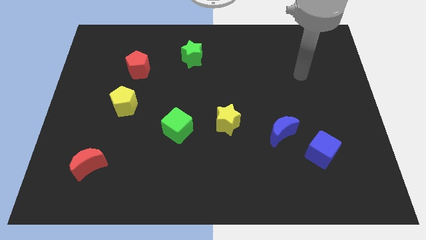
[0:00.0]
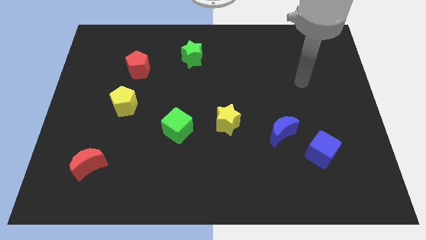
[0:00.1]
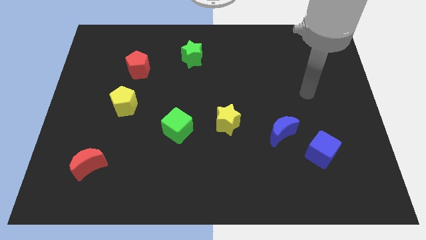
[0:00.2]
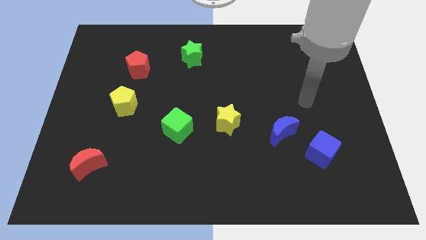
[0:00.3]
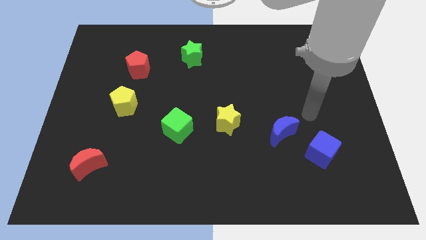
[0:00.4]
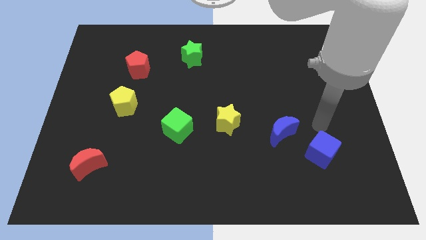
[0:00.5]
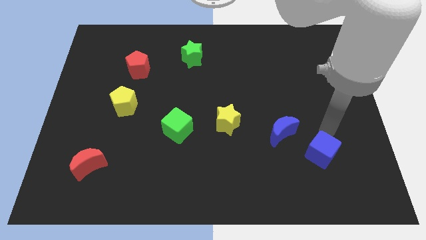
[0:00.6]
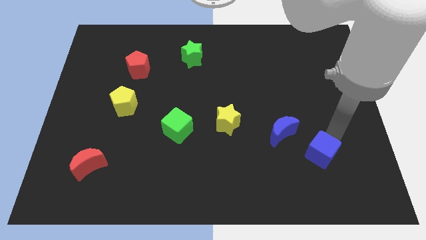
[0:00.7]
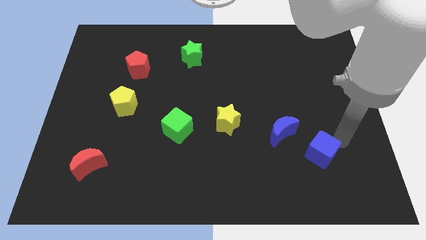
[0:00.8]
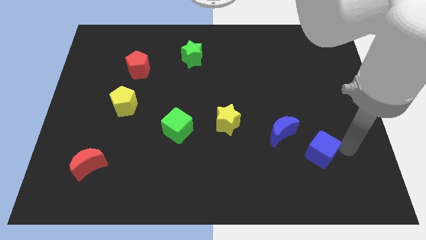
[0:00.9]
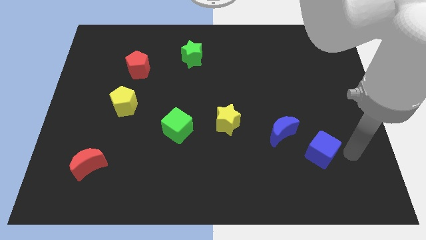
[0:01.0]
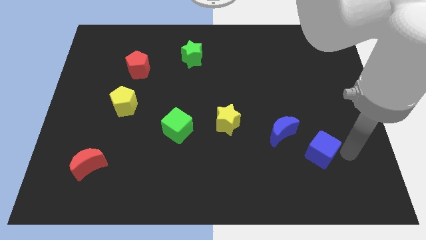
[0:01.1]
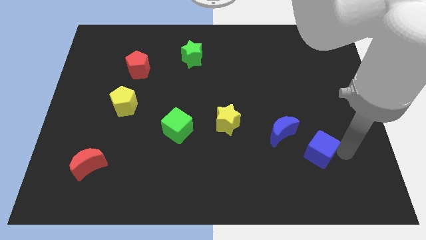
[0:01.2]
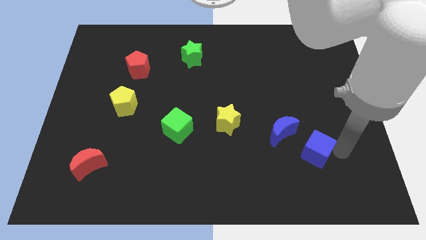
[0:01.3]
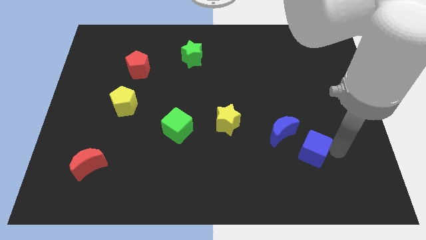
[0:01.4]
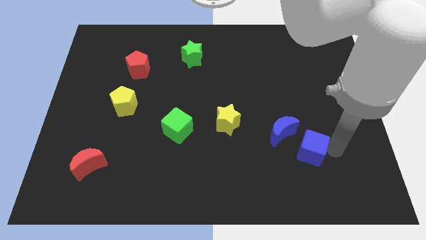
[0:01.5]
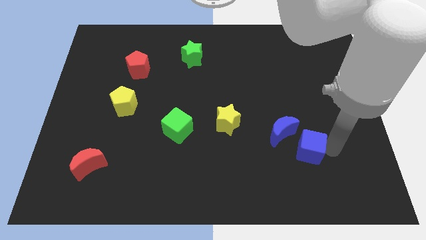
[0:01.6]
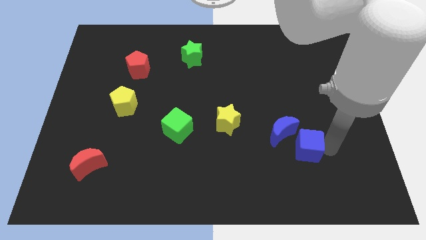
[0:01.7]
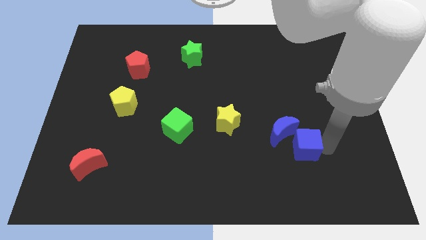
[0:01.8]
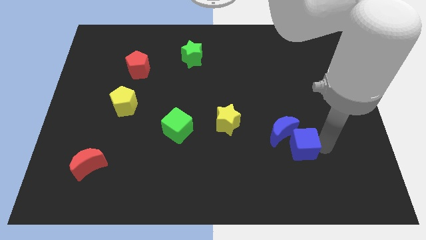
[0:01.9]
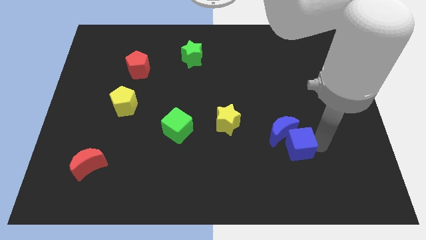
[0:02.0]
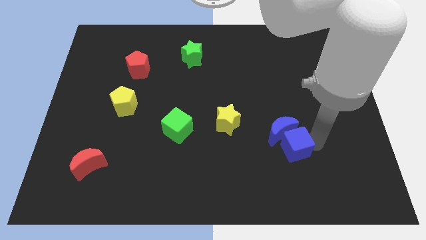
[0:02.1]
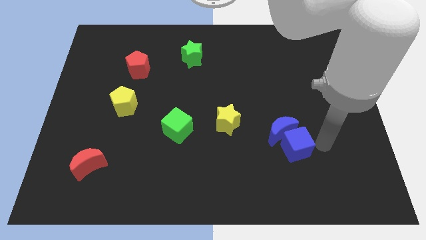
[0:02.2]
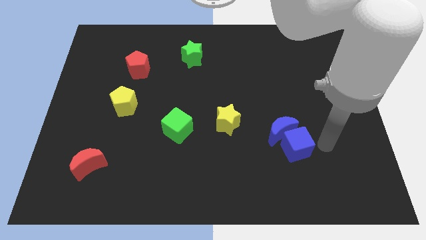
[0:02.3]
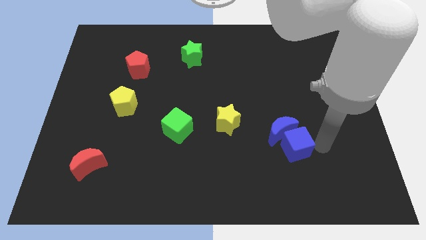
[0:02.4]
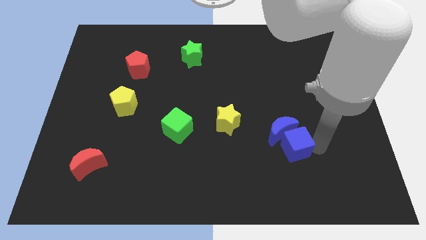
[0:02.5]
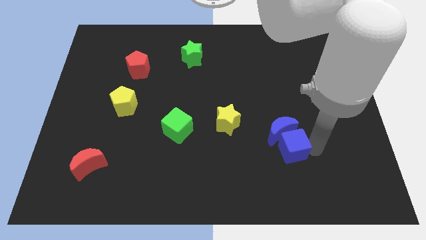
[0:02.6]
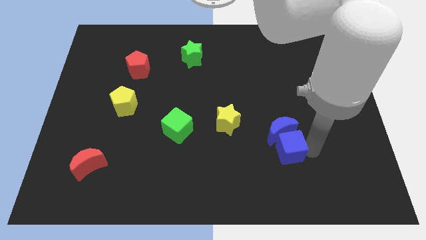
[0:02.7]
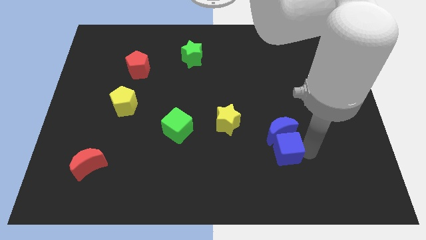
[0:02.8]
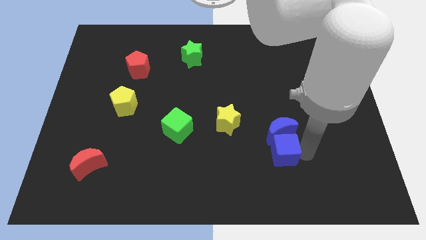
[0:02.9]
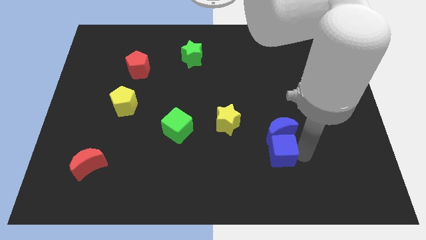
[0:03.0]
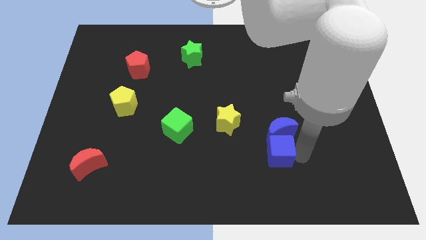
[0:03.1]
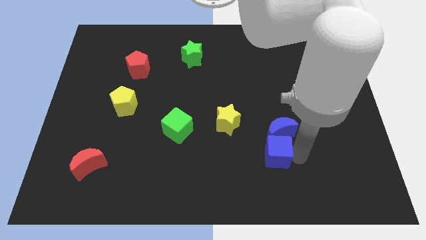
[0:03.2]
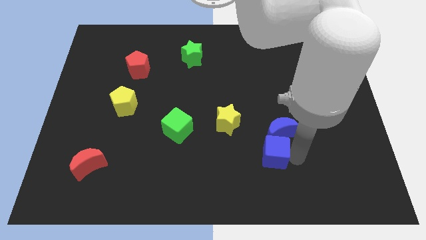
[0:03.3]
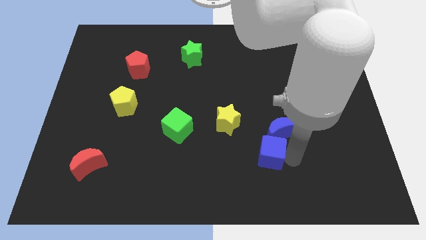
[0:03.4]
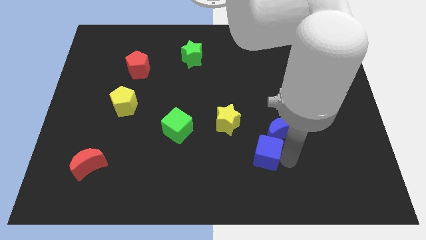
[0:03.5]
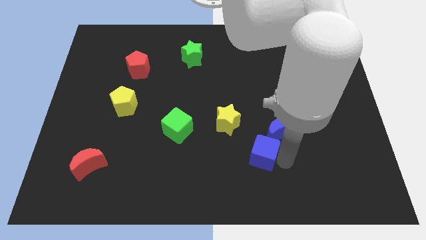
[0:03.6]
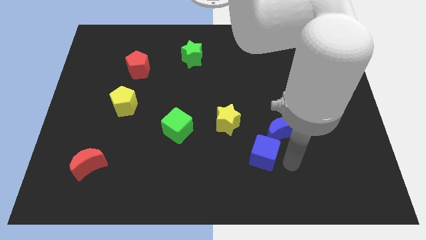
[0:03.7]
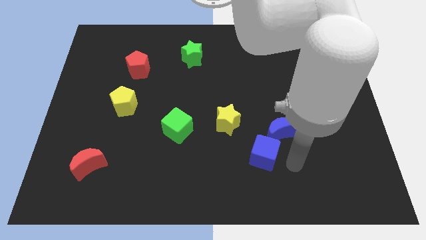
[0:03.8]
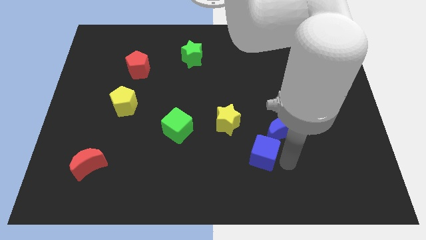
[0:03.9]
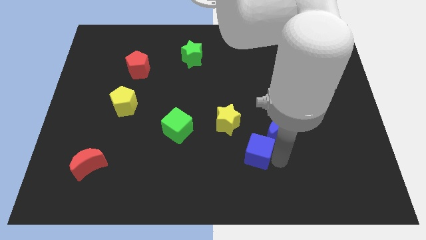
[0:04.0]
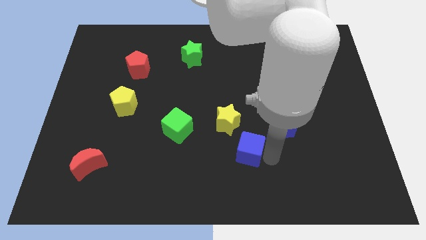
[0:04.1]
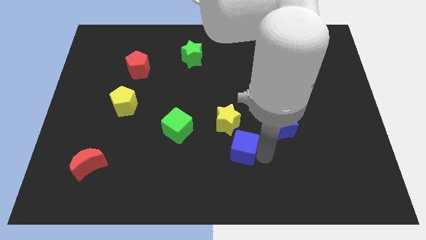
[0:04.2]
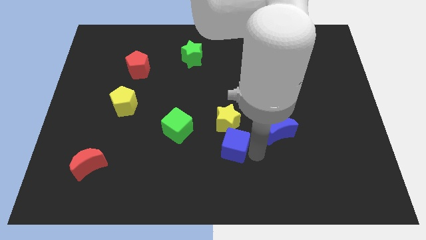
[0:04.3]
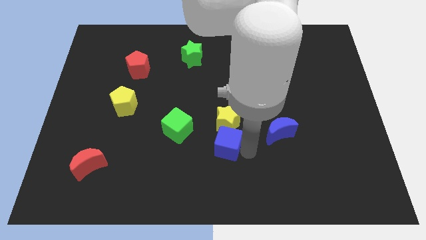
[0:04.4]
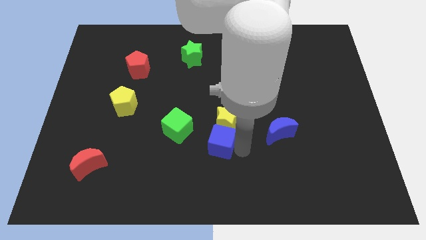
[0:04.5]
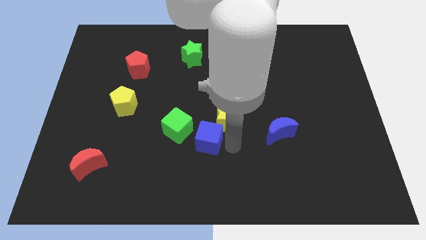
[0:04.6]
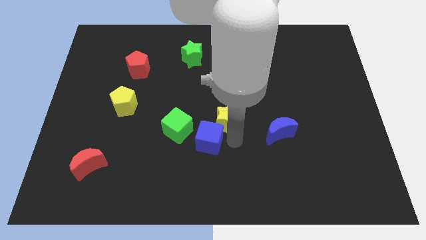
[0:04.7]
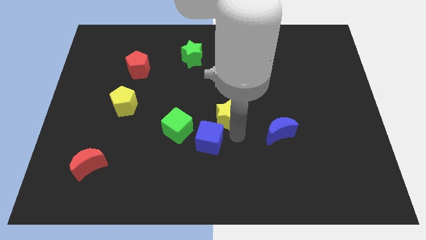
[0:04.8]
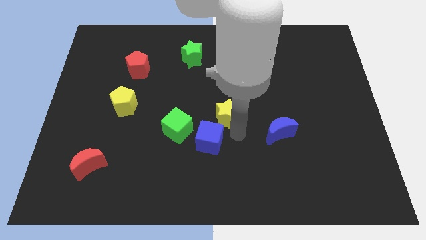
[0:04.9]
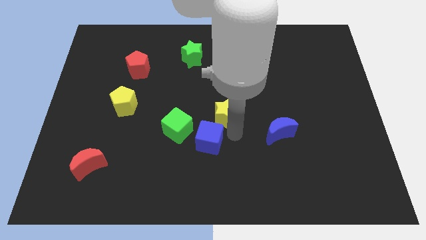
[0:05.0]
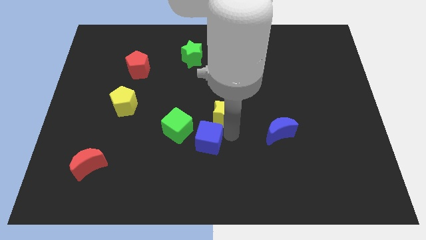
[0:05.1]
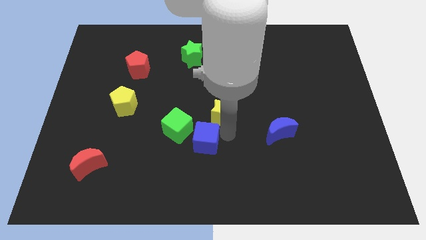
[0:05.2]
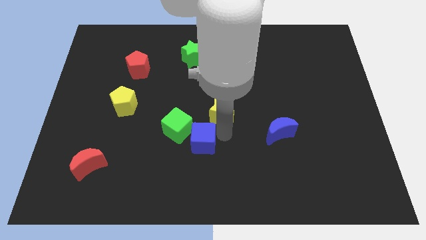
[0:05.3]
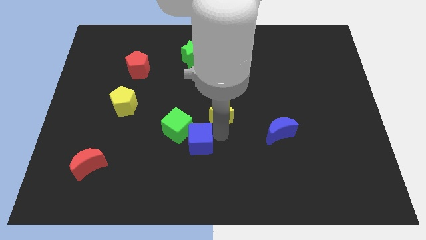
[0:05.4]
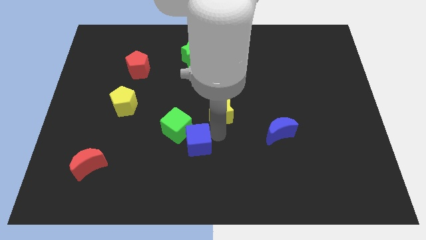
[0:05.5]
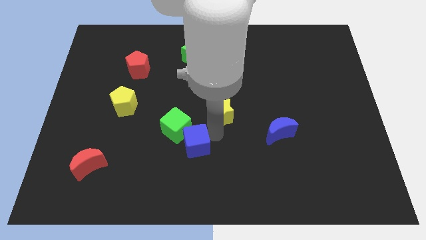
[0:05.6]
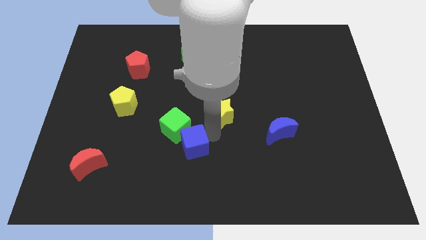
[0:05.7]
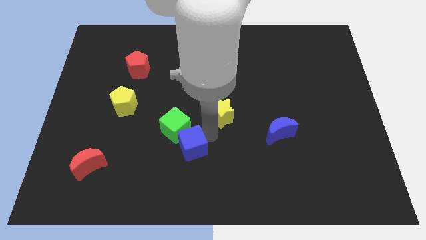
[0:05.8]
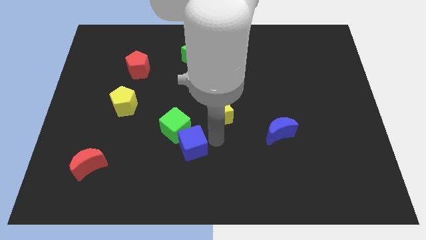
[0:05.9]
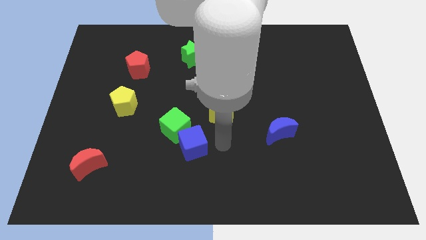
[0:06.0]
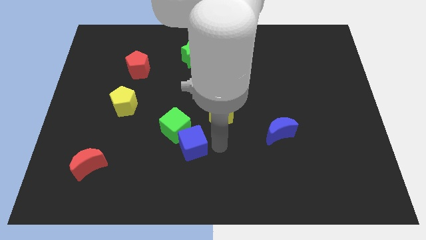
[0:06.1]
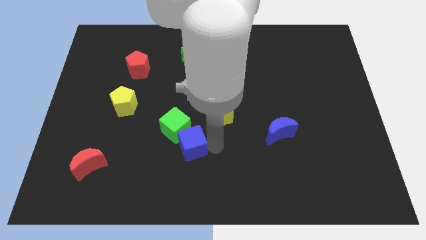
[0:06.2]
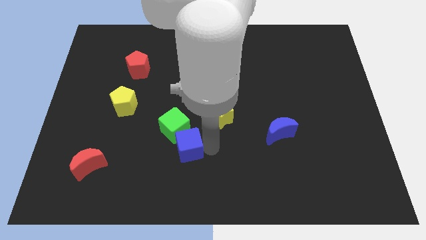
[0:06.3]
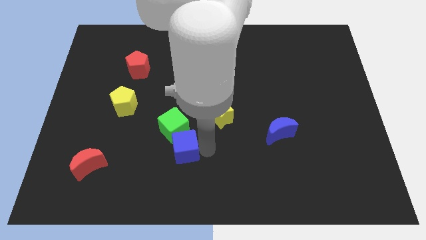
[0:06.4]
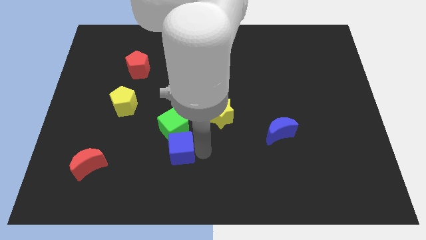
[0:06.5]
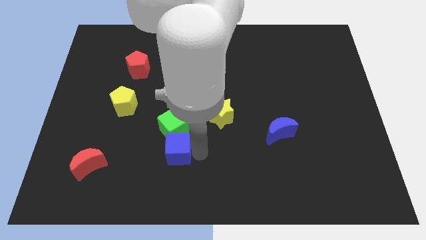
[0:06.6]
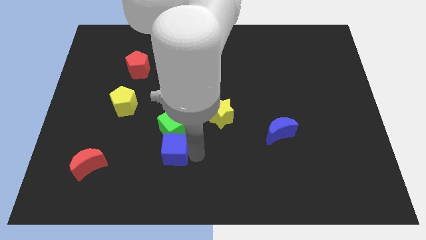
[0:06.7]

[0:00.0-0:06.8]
move the blue cube to the bottom left of the green cube

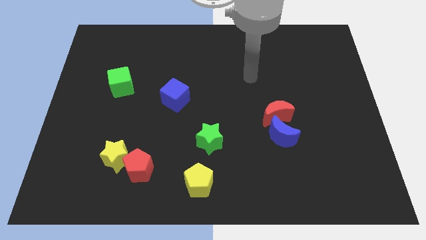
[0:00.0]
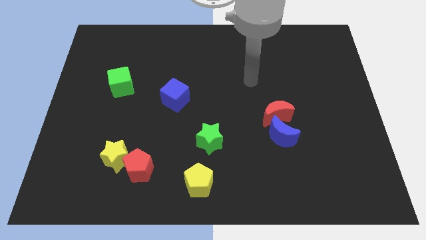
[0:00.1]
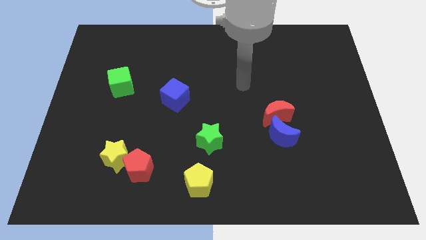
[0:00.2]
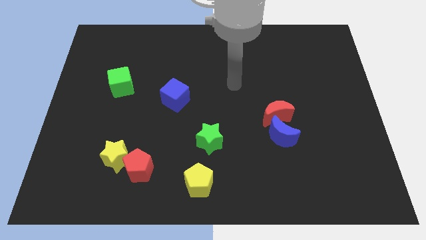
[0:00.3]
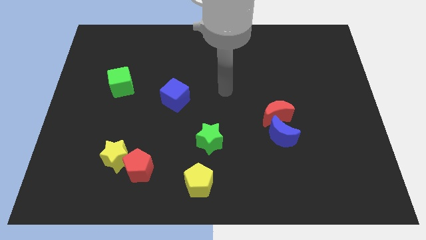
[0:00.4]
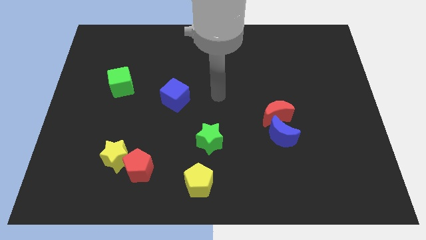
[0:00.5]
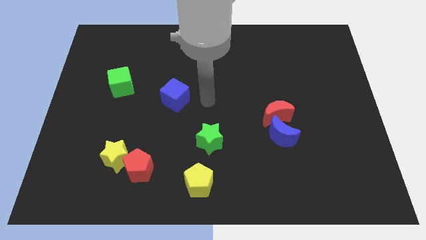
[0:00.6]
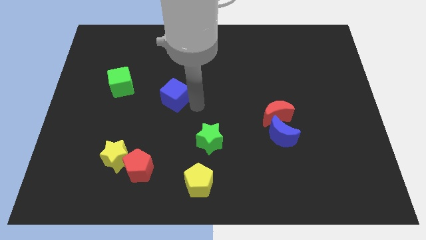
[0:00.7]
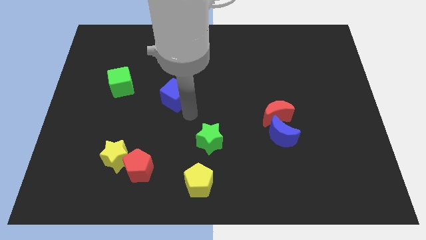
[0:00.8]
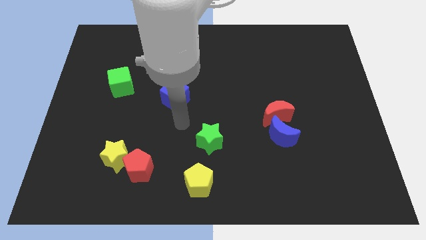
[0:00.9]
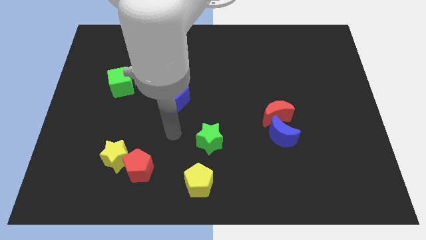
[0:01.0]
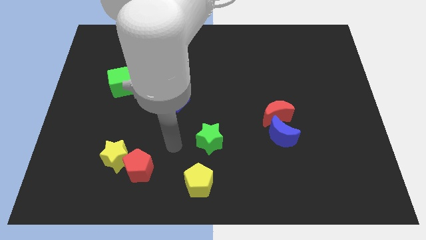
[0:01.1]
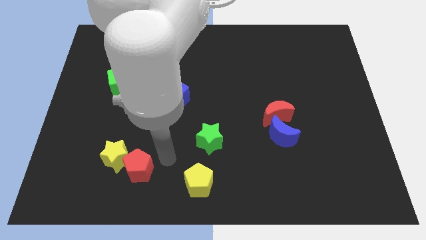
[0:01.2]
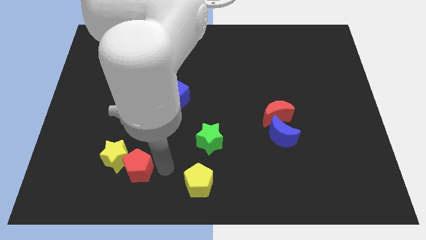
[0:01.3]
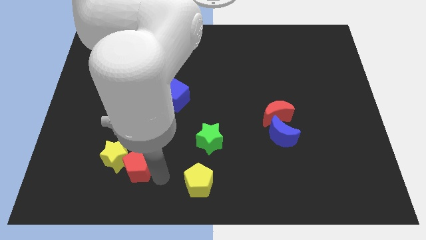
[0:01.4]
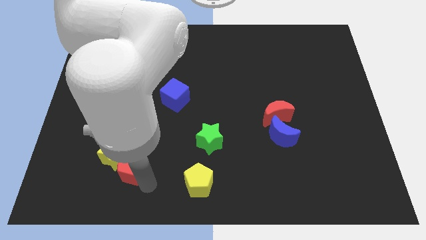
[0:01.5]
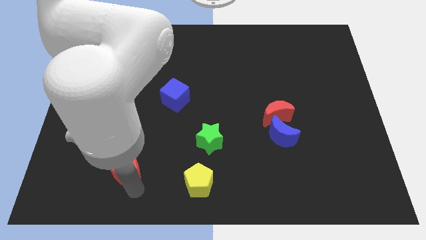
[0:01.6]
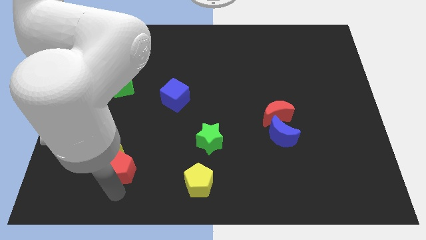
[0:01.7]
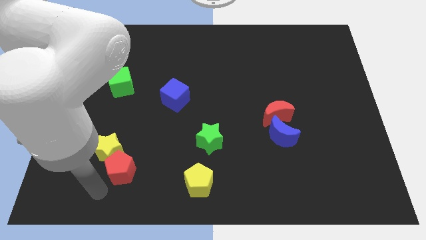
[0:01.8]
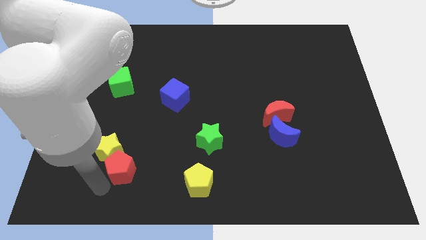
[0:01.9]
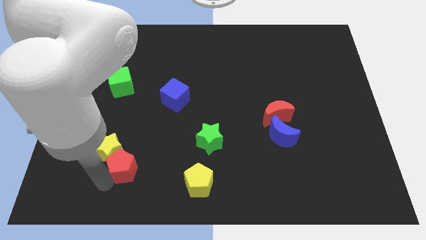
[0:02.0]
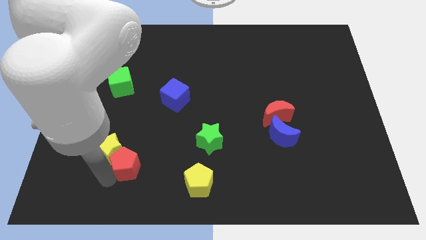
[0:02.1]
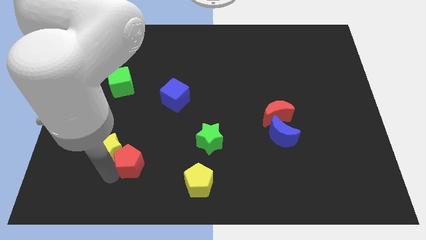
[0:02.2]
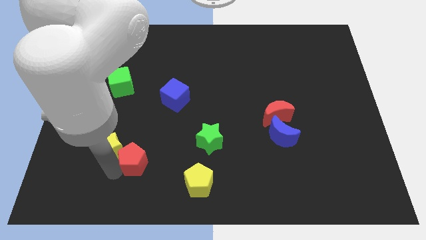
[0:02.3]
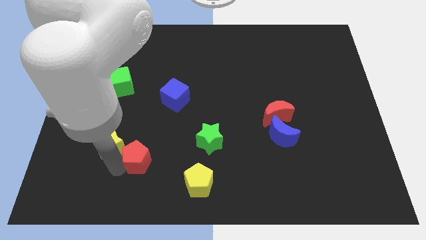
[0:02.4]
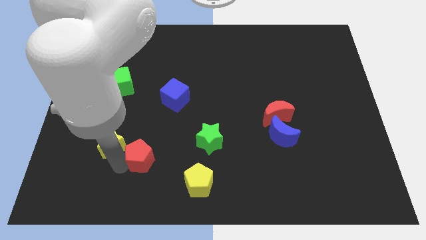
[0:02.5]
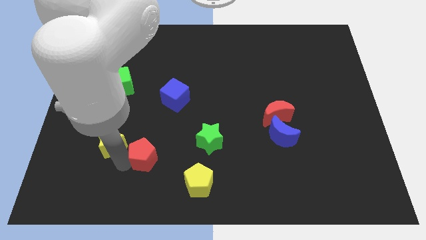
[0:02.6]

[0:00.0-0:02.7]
move the red pentagon to the left side of the green star
